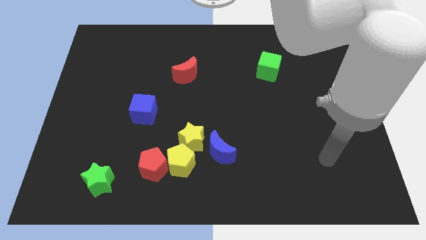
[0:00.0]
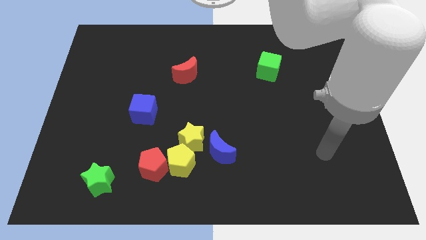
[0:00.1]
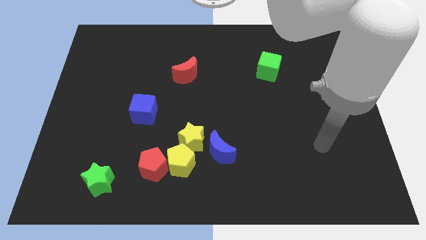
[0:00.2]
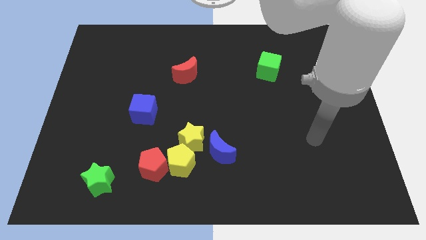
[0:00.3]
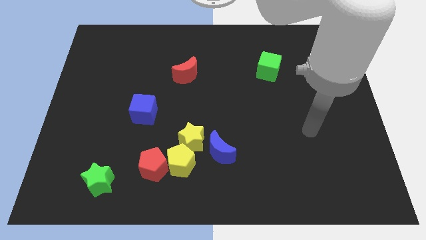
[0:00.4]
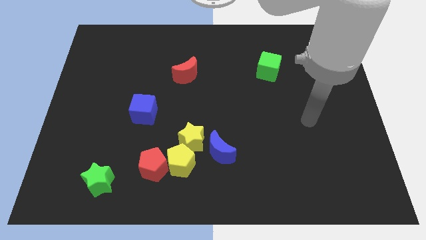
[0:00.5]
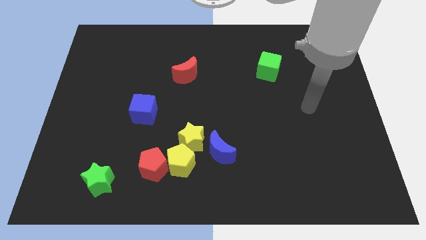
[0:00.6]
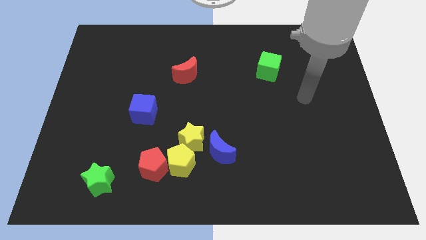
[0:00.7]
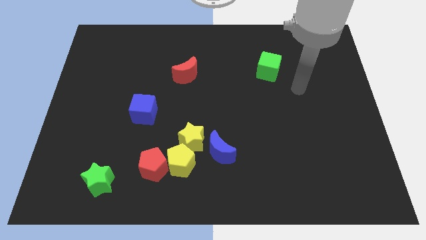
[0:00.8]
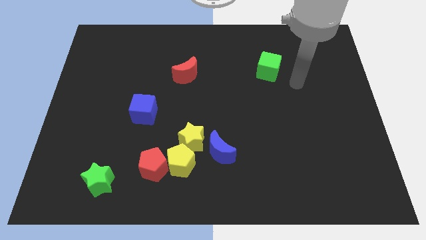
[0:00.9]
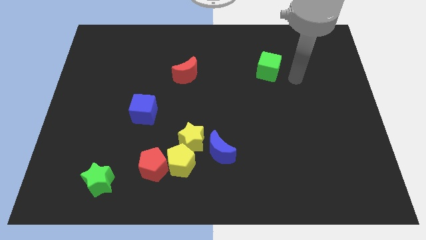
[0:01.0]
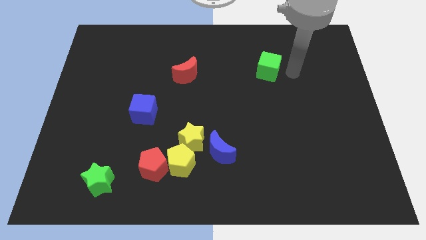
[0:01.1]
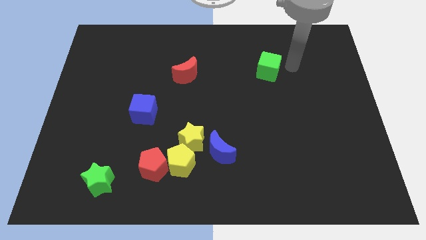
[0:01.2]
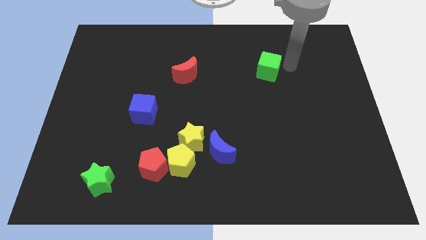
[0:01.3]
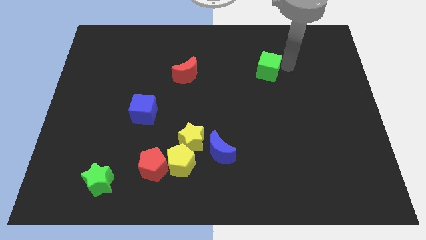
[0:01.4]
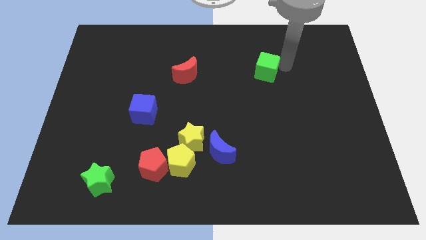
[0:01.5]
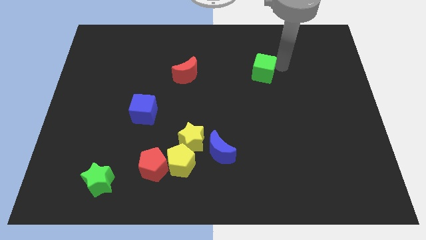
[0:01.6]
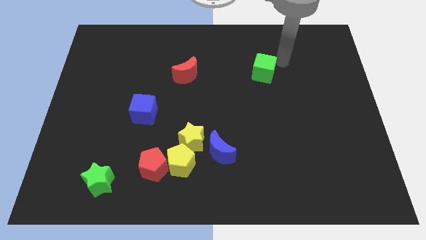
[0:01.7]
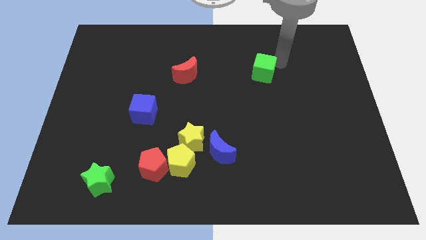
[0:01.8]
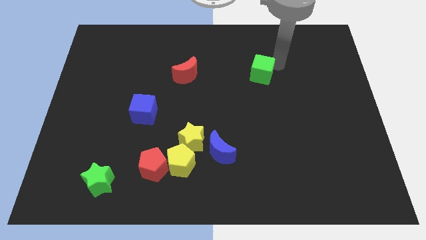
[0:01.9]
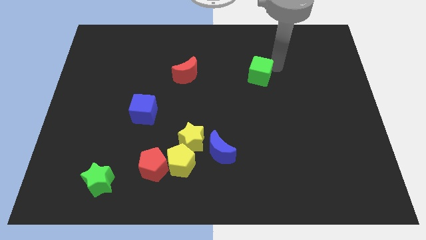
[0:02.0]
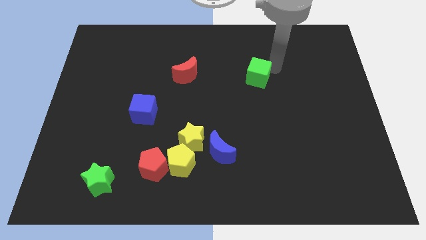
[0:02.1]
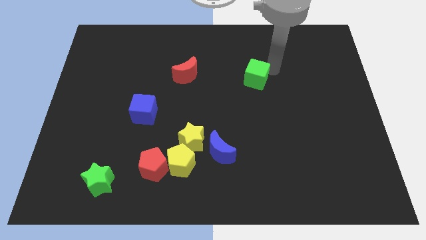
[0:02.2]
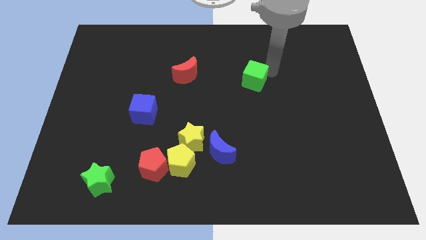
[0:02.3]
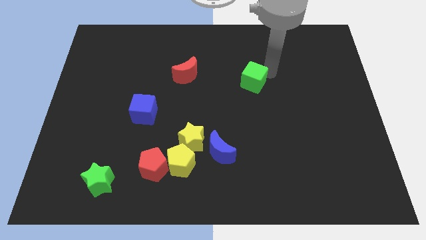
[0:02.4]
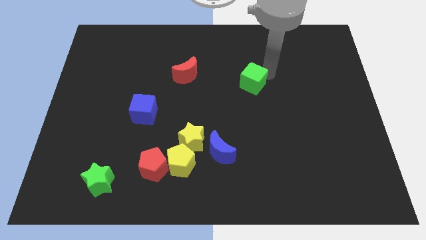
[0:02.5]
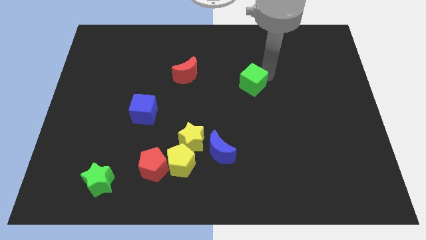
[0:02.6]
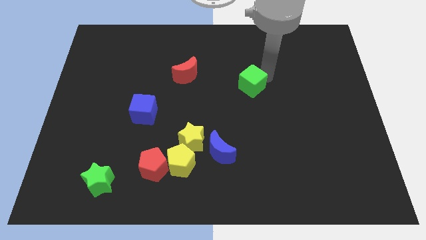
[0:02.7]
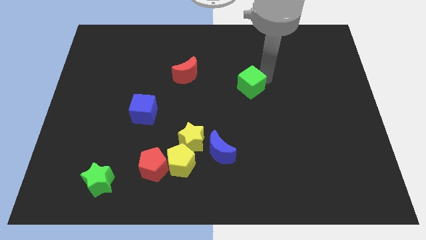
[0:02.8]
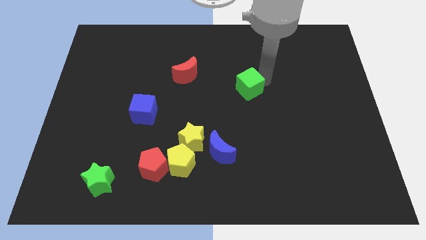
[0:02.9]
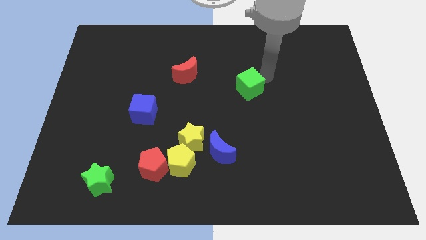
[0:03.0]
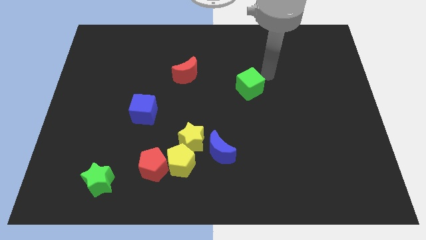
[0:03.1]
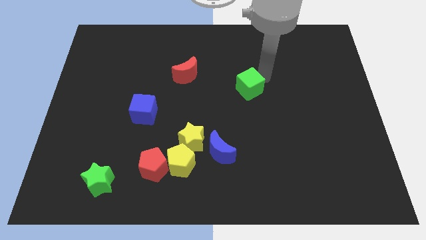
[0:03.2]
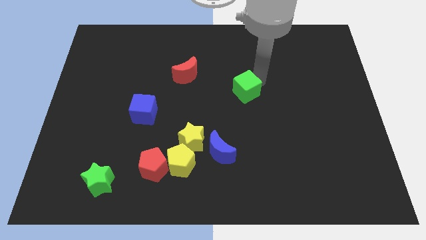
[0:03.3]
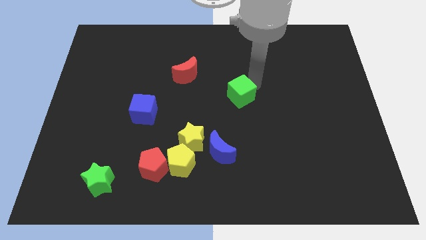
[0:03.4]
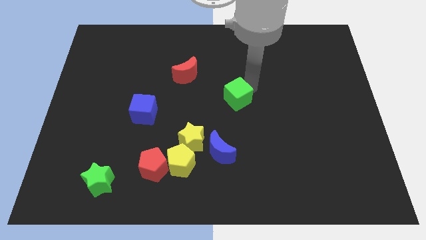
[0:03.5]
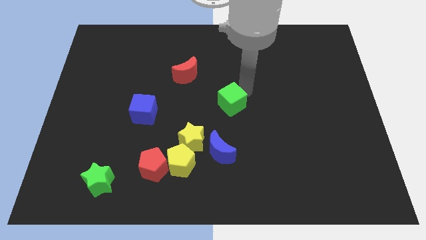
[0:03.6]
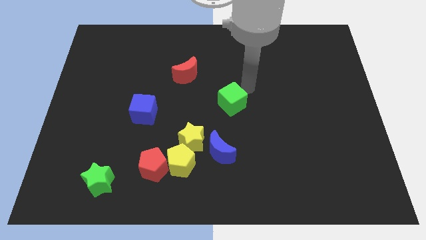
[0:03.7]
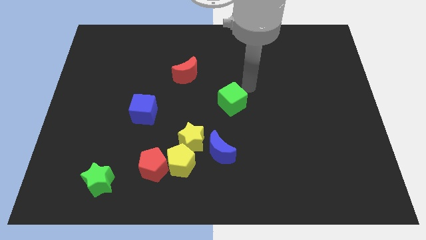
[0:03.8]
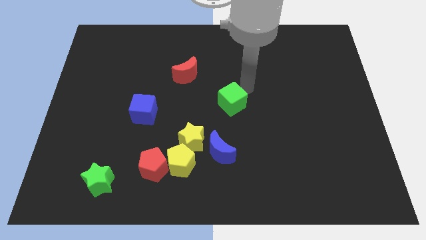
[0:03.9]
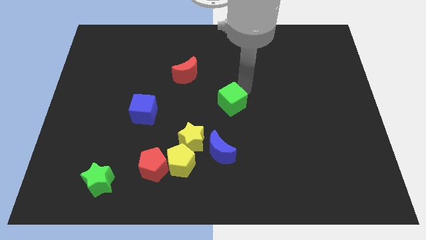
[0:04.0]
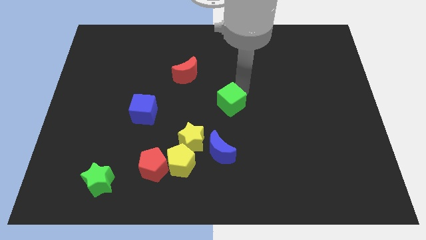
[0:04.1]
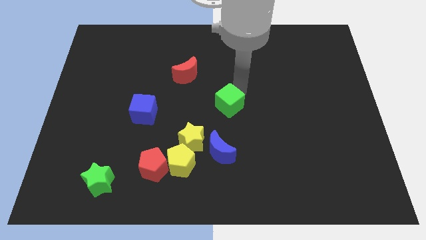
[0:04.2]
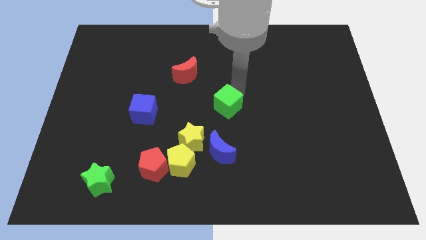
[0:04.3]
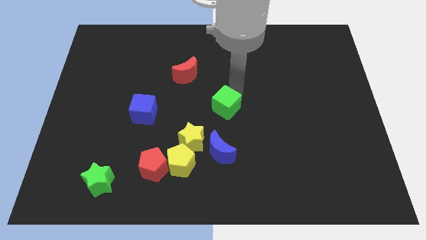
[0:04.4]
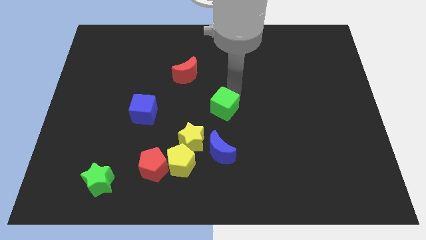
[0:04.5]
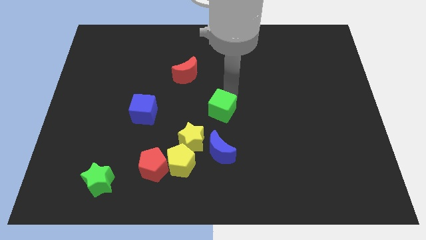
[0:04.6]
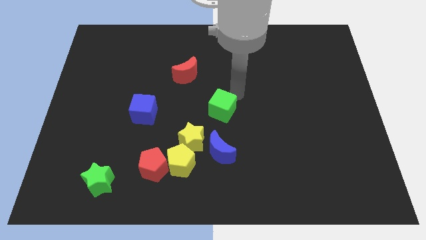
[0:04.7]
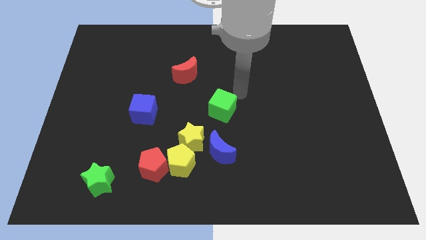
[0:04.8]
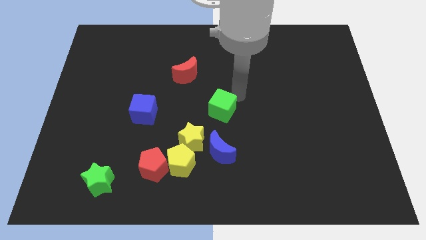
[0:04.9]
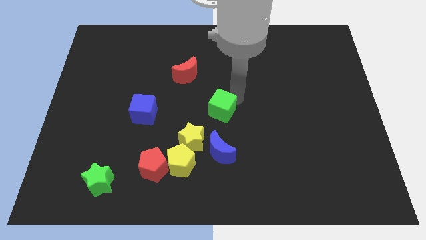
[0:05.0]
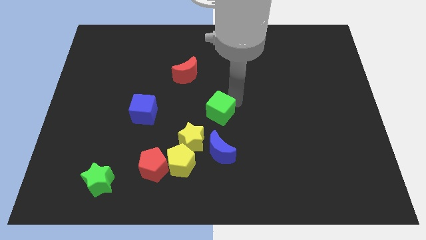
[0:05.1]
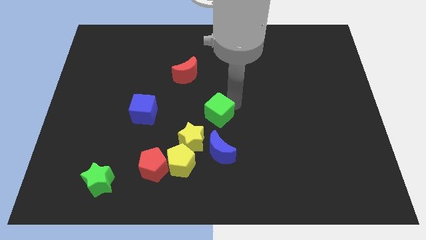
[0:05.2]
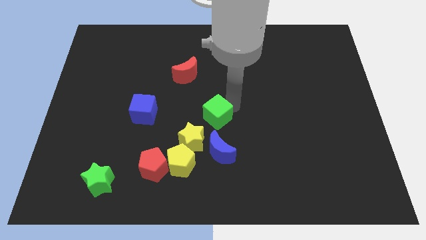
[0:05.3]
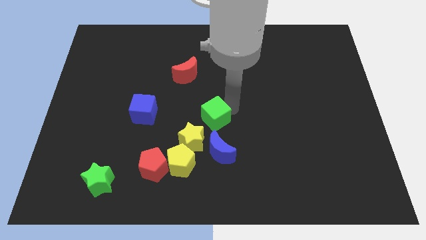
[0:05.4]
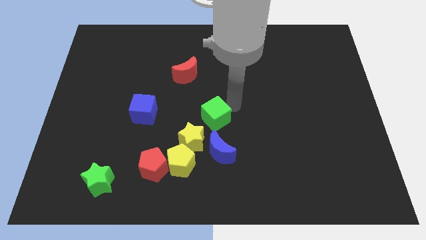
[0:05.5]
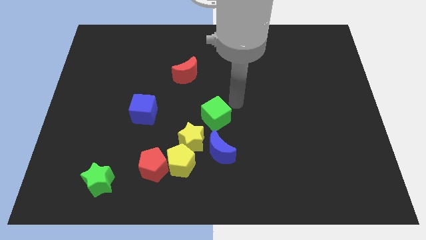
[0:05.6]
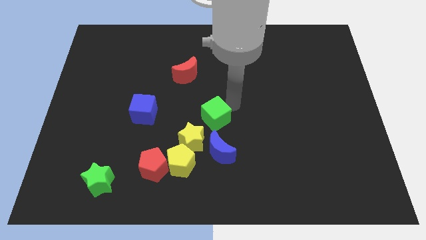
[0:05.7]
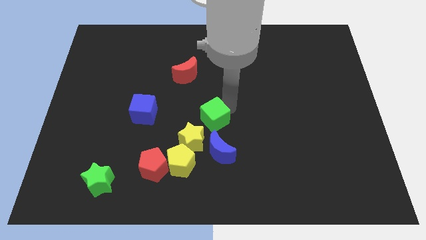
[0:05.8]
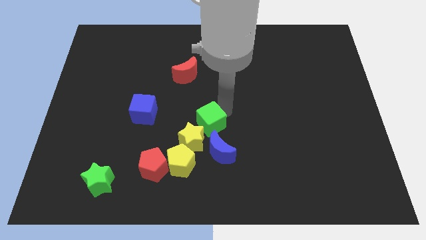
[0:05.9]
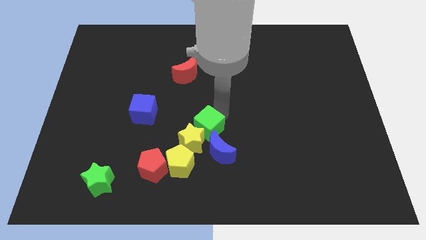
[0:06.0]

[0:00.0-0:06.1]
put the green cube to the yellow star

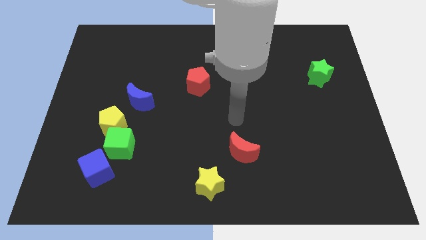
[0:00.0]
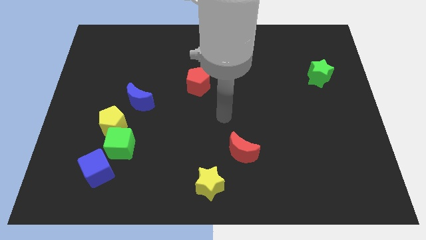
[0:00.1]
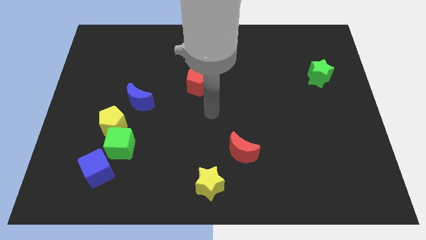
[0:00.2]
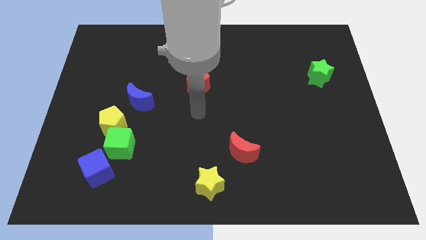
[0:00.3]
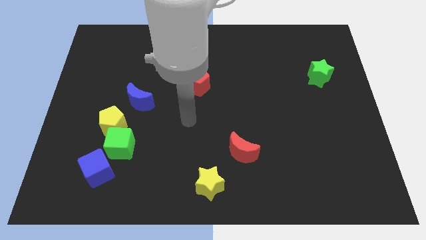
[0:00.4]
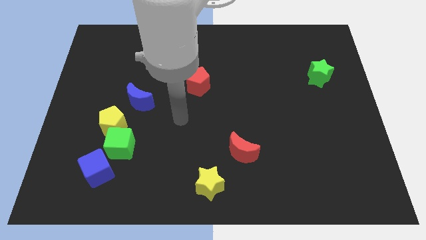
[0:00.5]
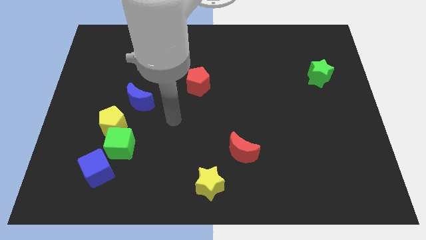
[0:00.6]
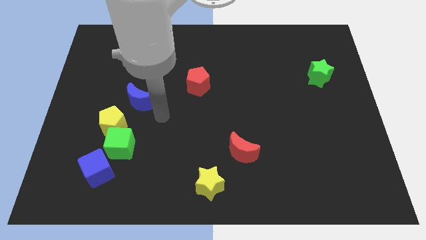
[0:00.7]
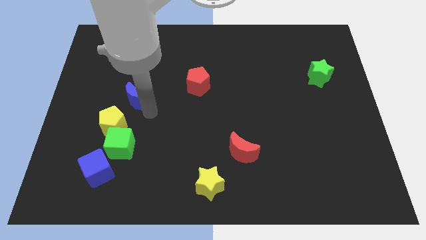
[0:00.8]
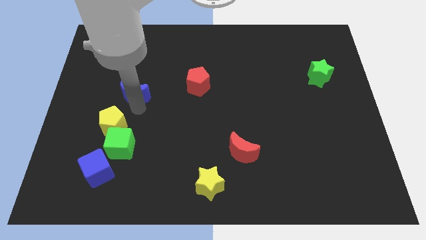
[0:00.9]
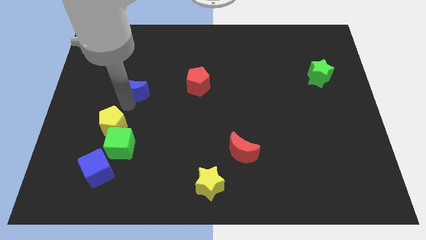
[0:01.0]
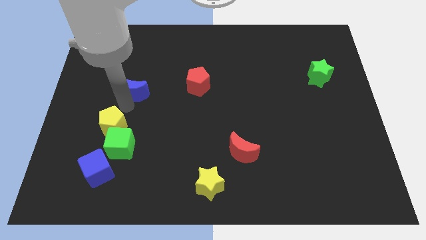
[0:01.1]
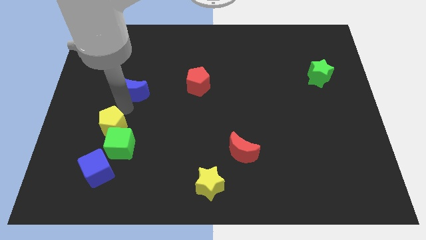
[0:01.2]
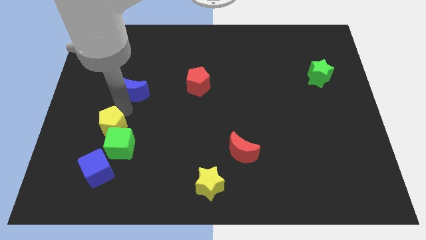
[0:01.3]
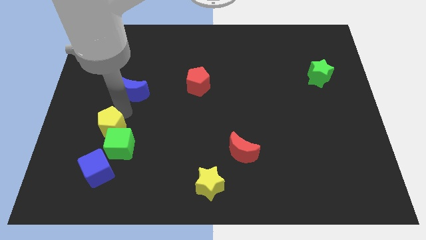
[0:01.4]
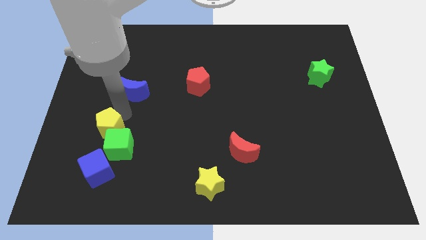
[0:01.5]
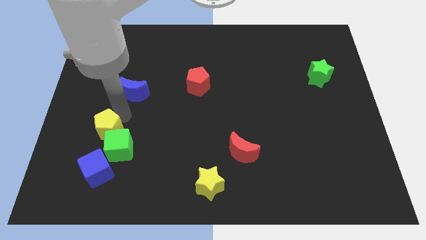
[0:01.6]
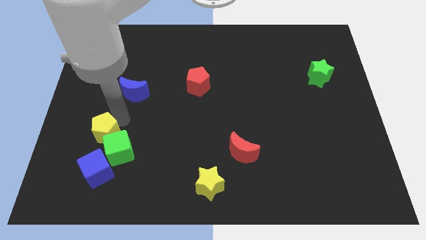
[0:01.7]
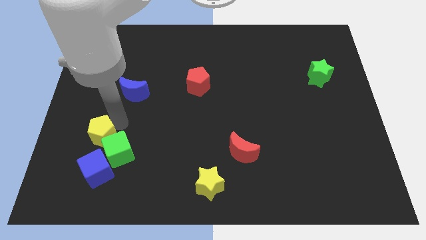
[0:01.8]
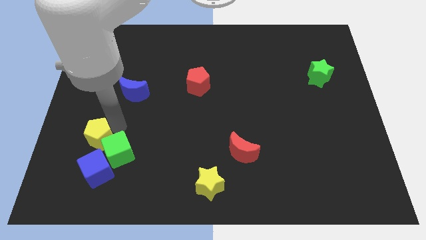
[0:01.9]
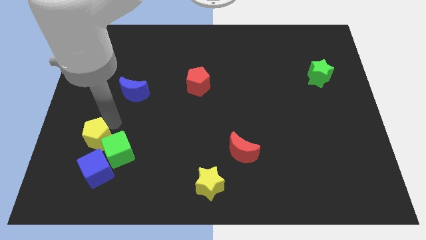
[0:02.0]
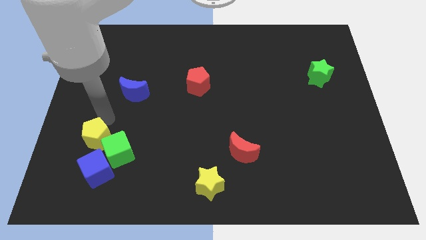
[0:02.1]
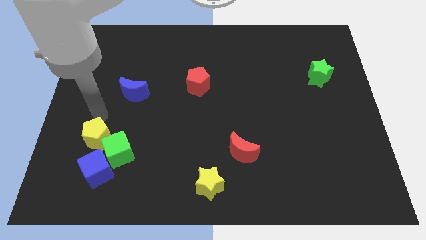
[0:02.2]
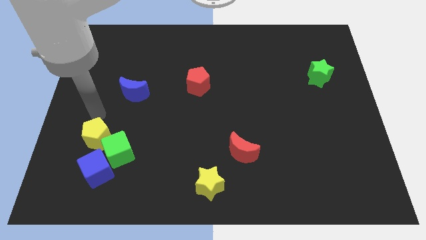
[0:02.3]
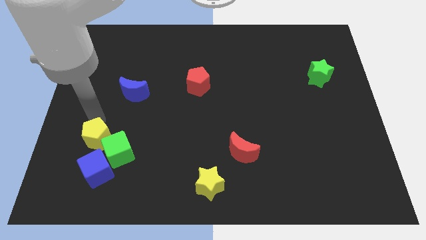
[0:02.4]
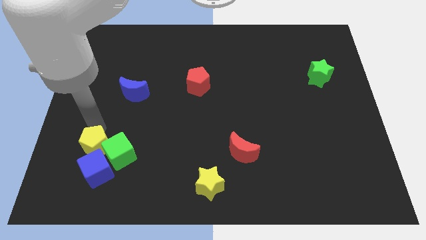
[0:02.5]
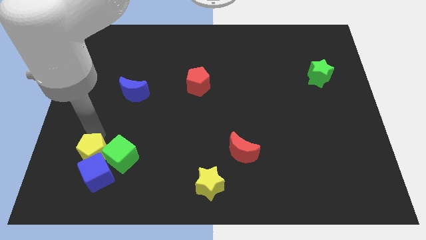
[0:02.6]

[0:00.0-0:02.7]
slide the yellow pentagon to the blue cube
